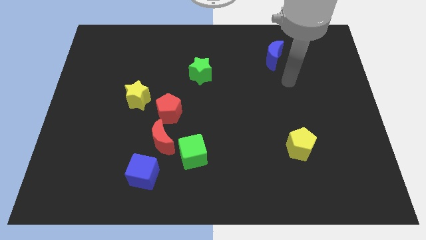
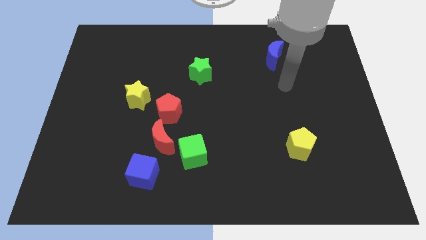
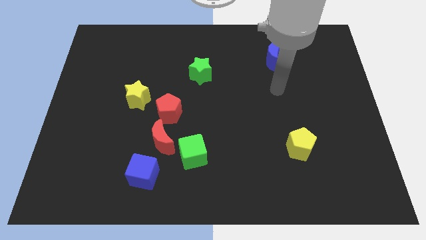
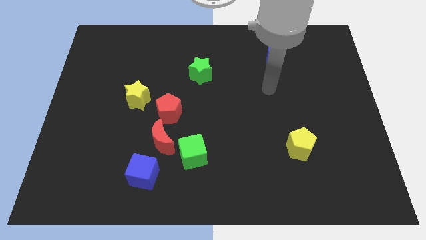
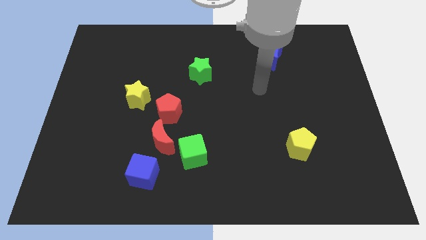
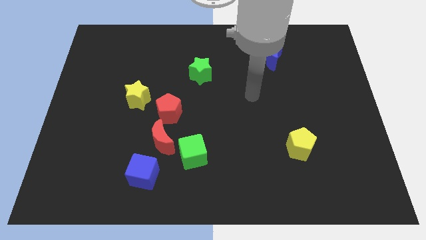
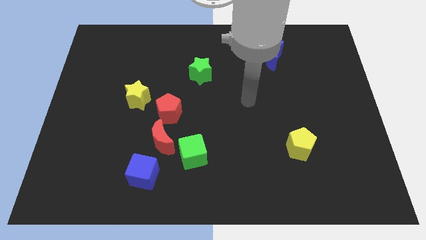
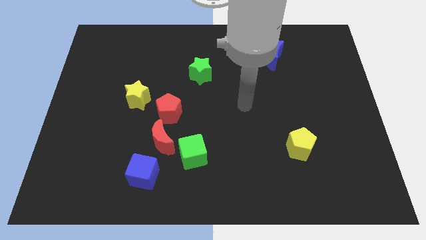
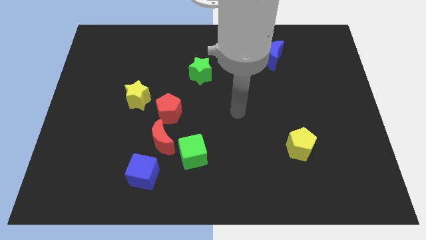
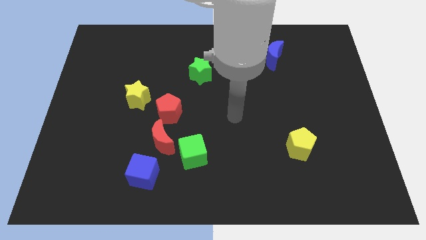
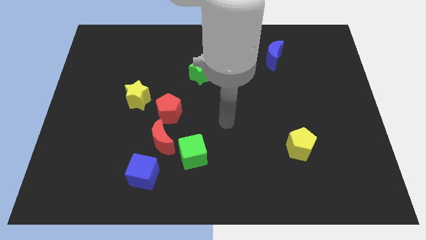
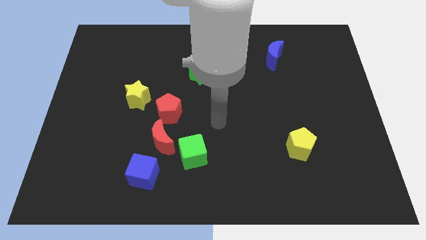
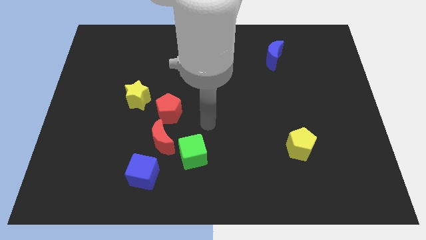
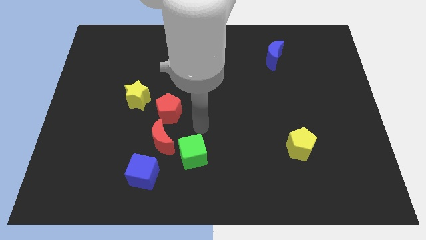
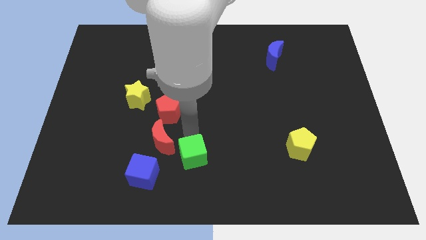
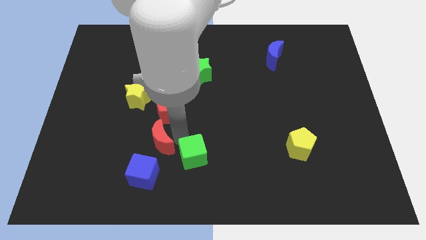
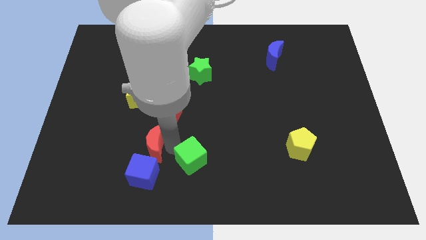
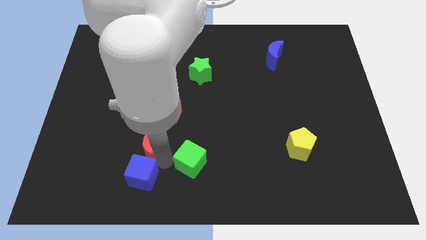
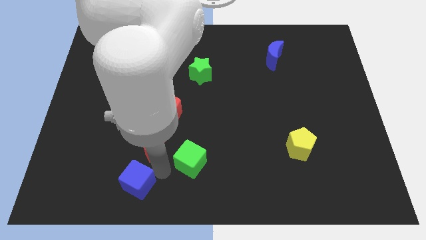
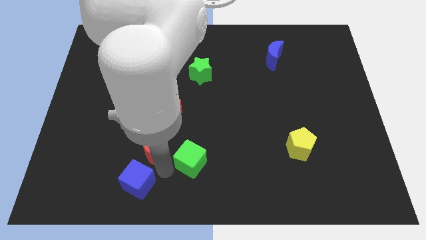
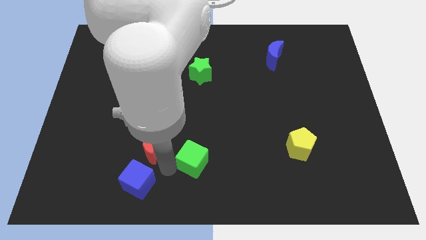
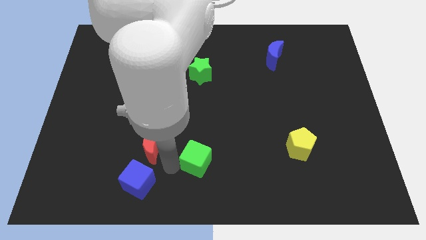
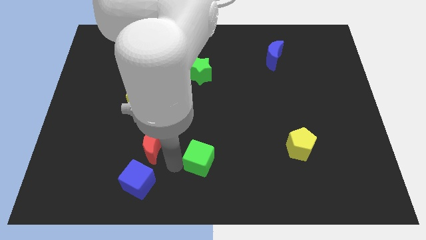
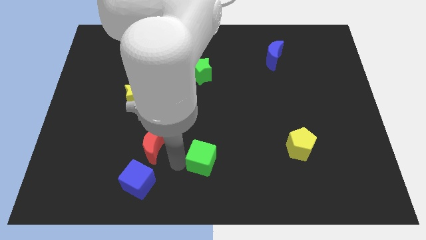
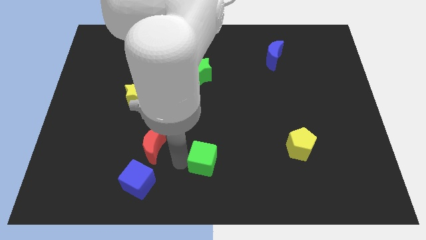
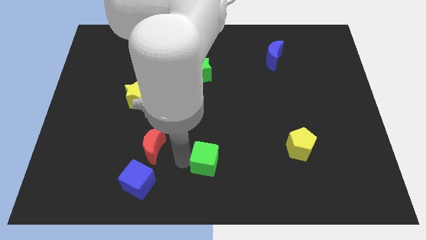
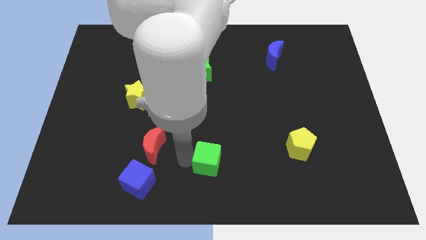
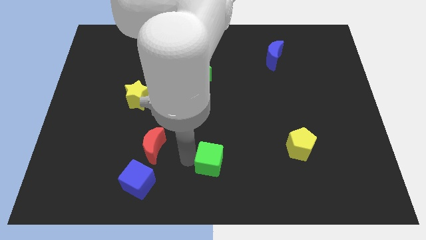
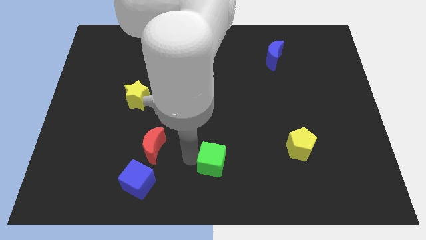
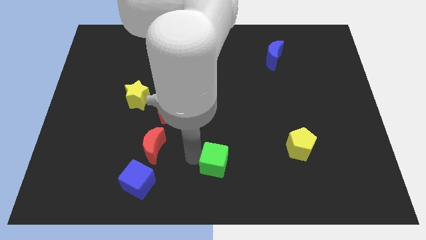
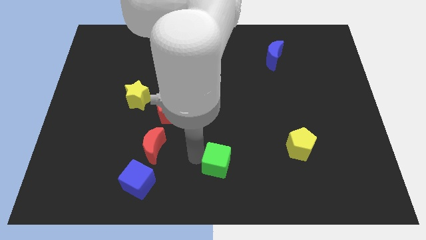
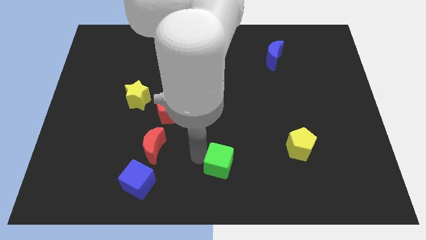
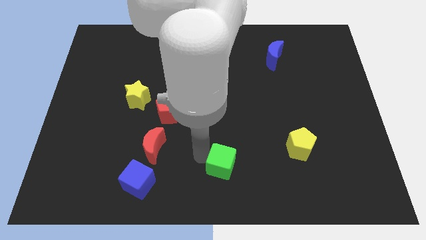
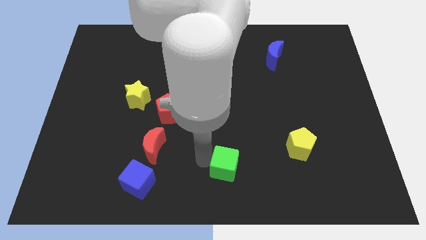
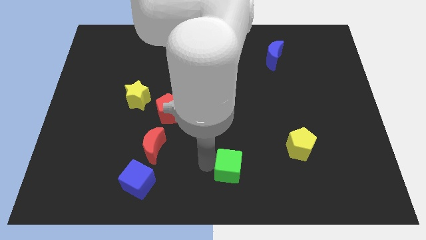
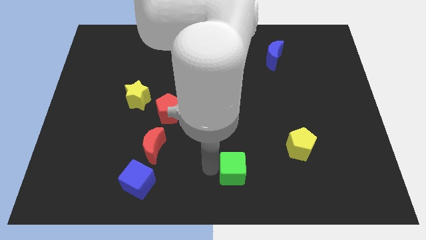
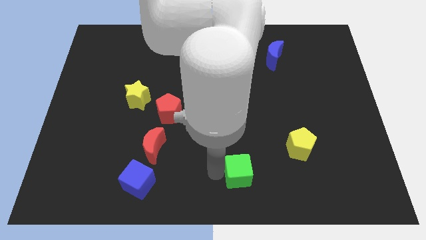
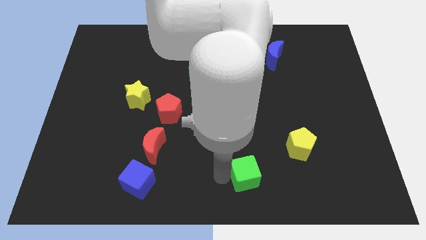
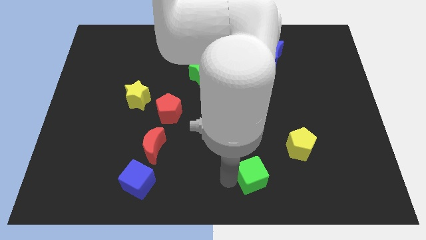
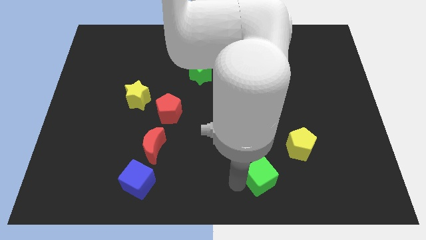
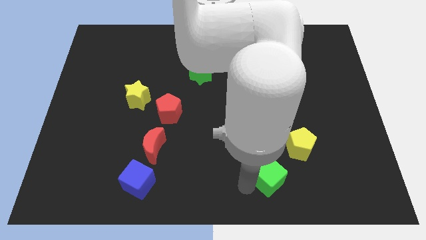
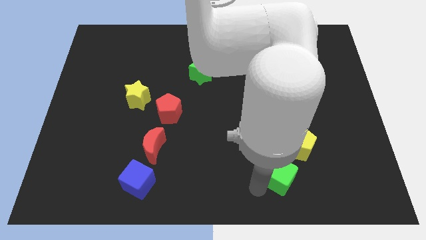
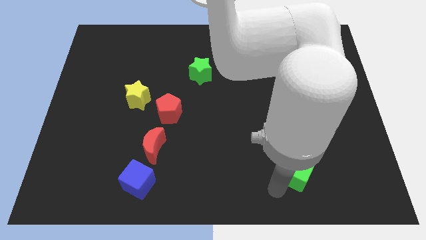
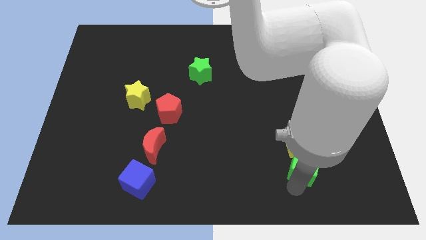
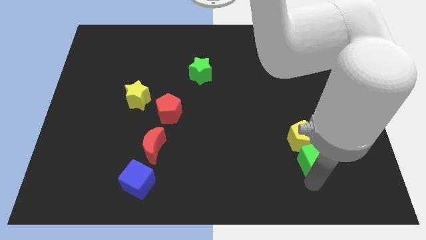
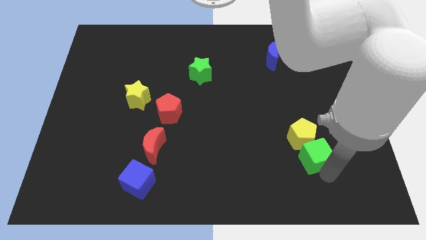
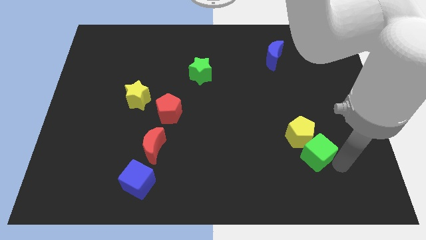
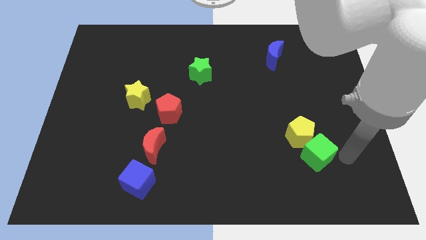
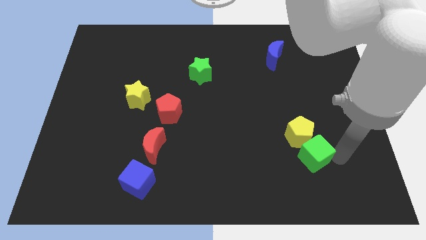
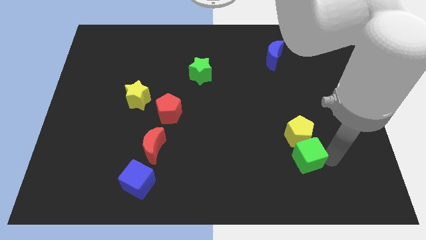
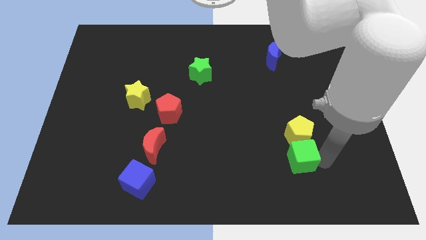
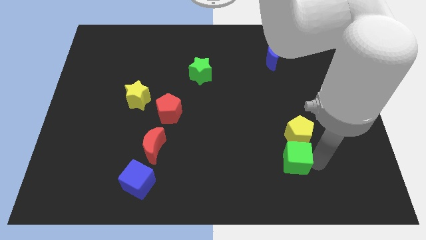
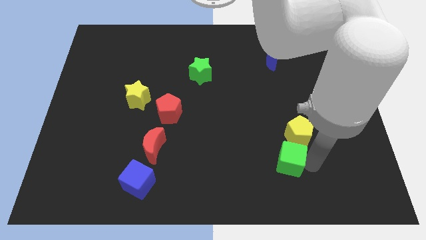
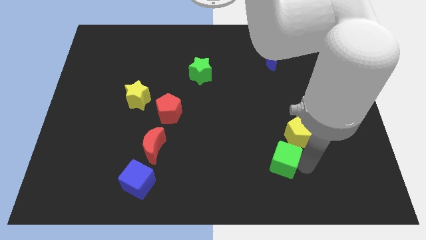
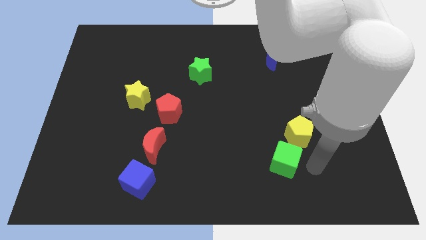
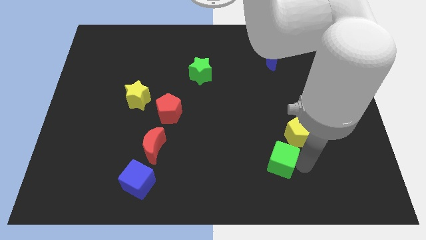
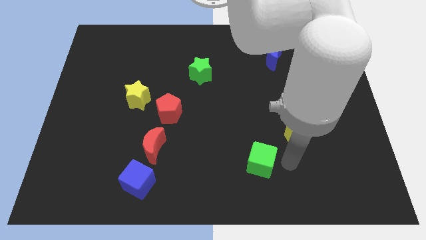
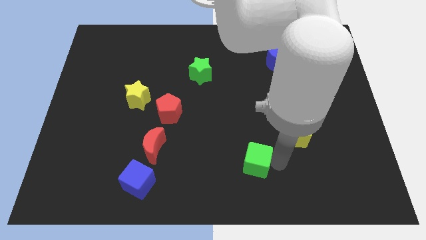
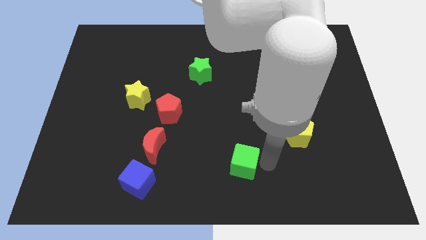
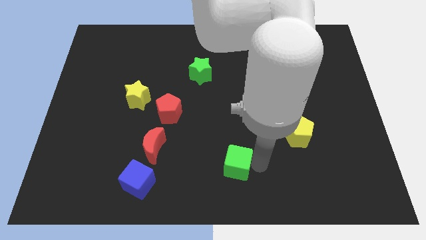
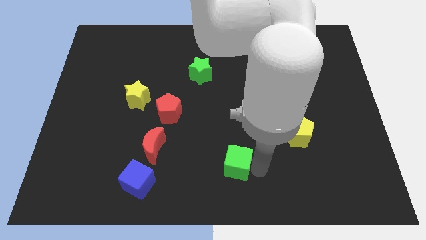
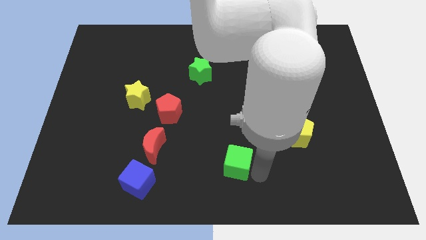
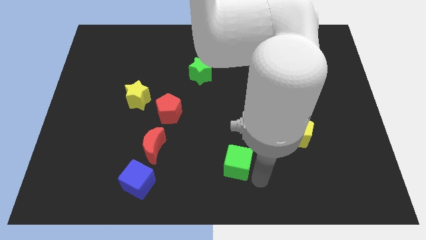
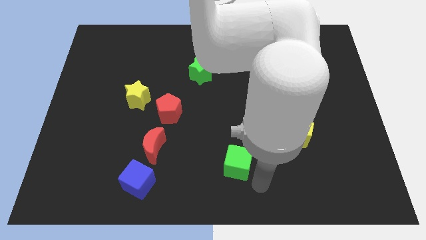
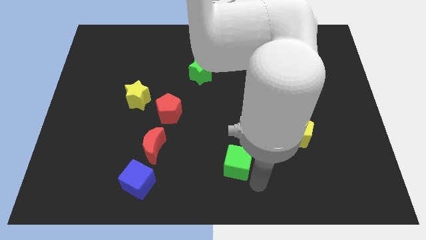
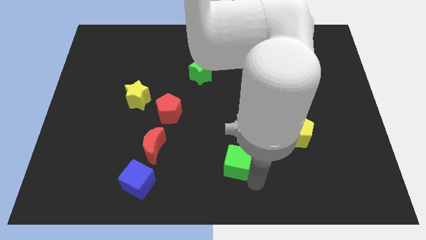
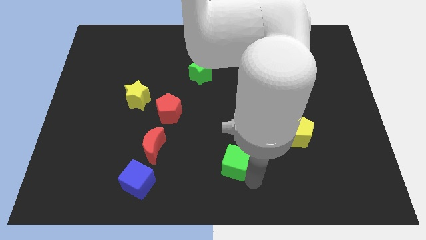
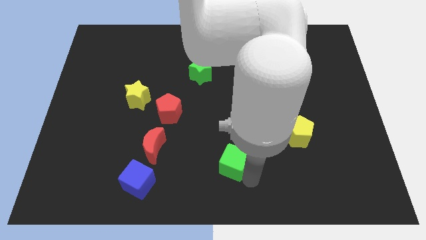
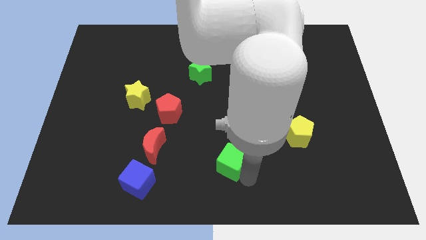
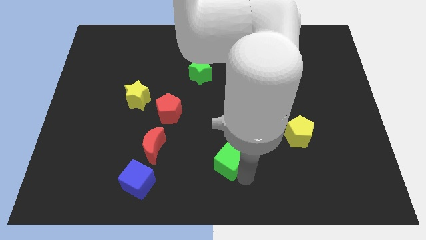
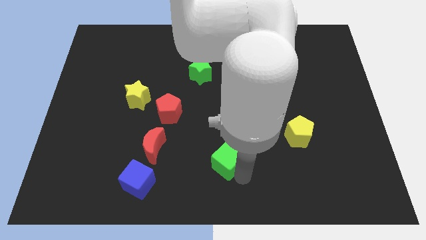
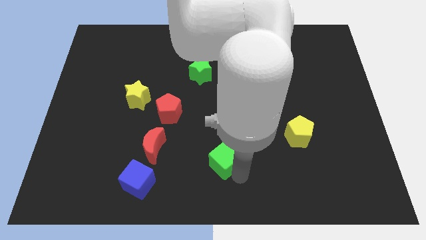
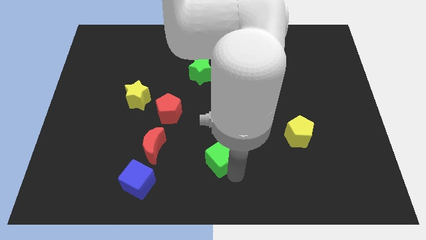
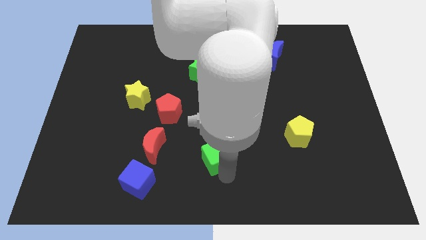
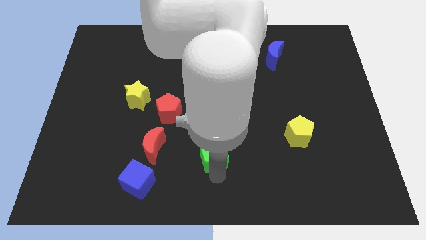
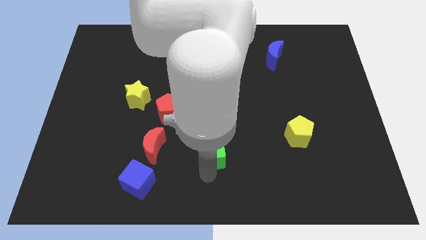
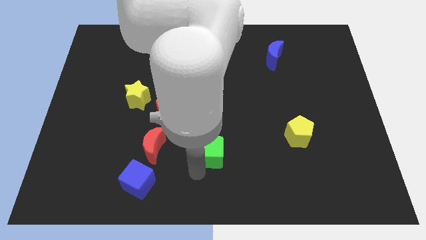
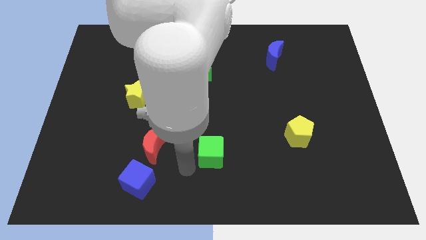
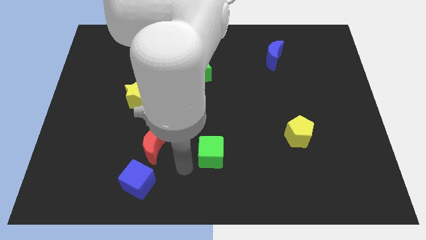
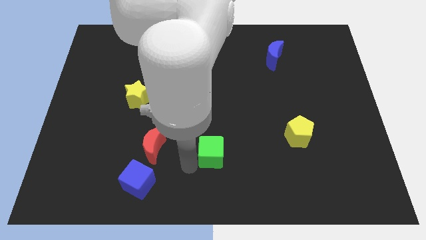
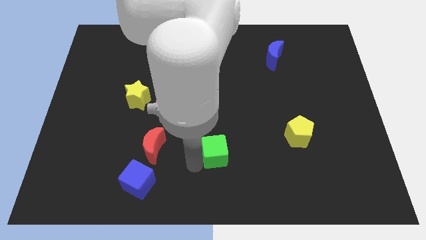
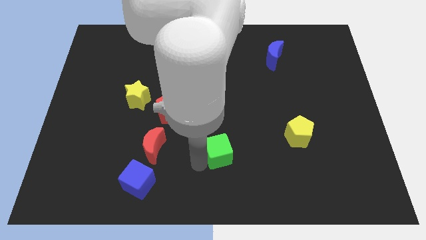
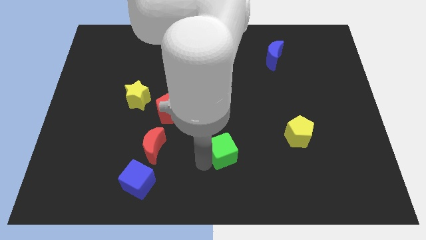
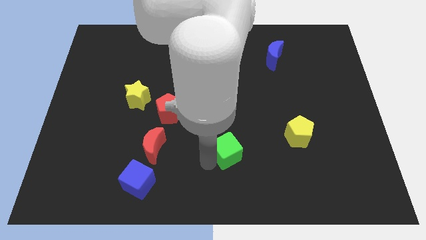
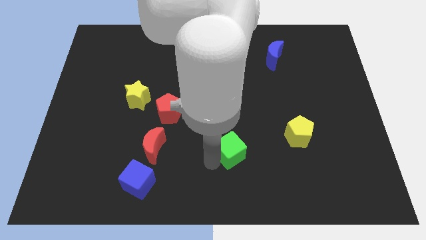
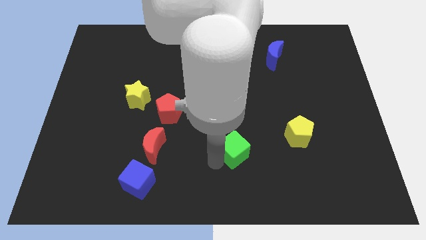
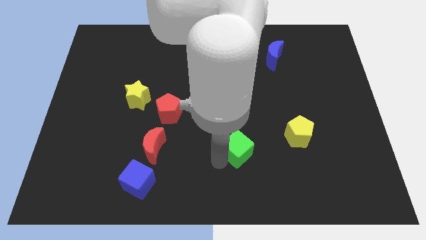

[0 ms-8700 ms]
slide the green cube just left of the yellow pentagon
